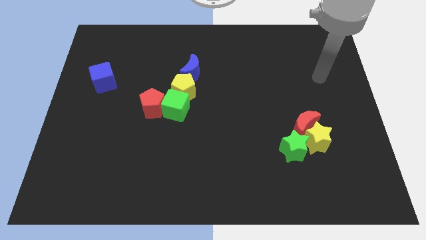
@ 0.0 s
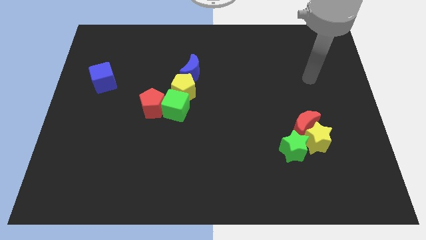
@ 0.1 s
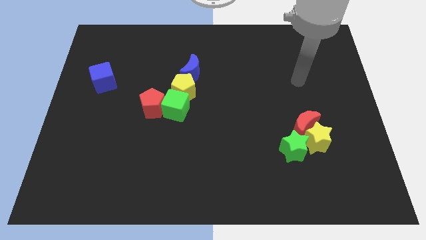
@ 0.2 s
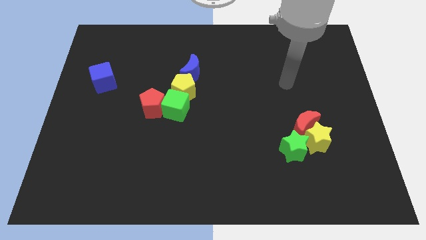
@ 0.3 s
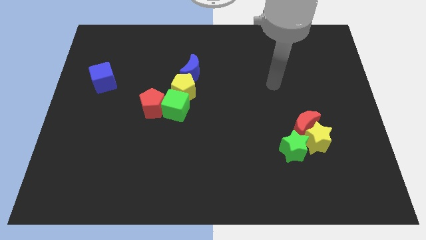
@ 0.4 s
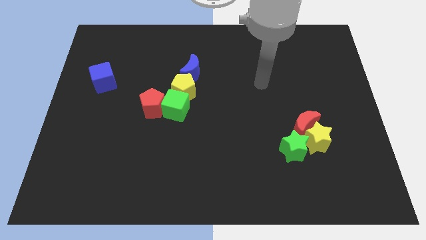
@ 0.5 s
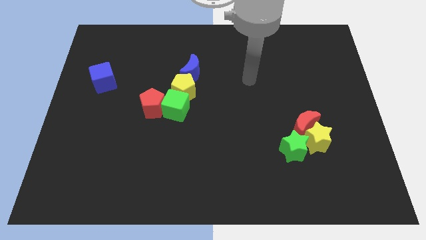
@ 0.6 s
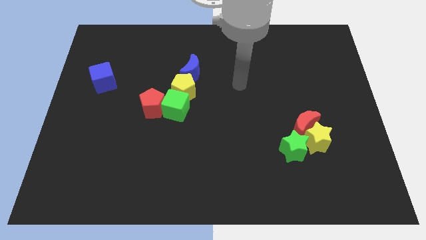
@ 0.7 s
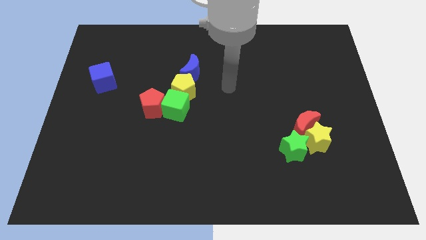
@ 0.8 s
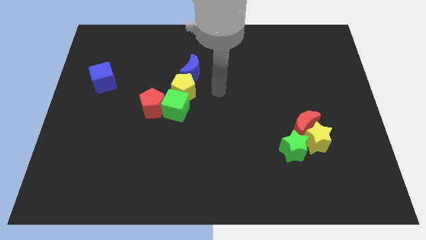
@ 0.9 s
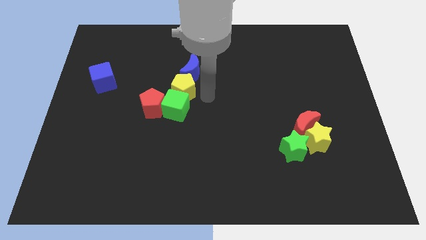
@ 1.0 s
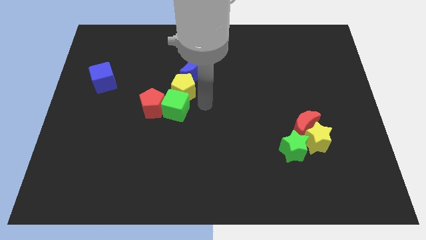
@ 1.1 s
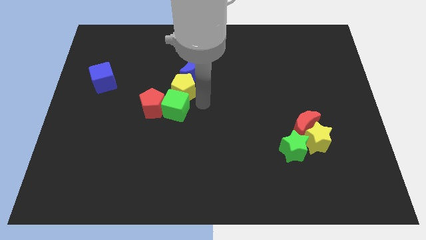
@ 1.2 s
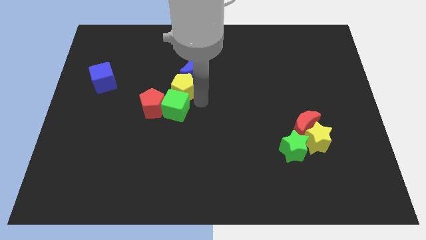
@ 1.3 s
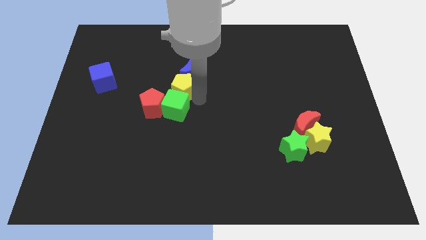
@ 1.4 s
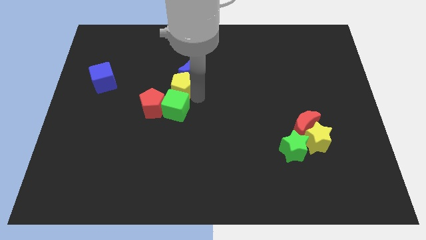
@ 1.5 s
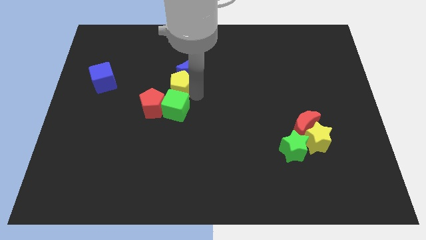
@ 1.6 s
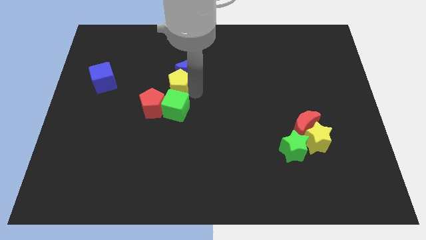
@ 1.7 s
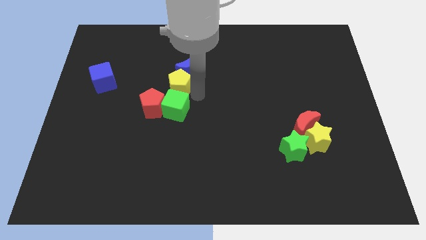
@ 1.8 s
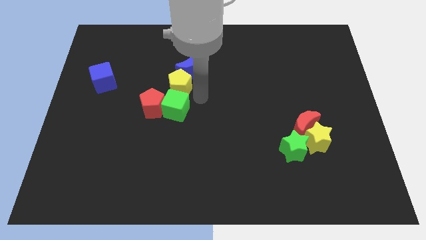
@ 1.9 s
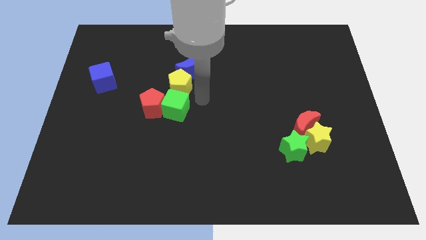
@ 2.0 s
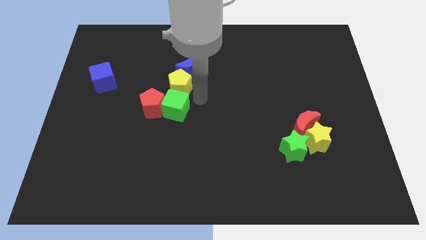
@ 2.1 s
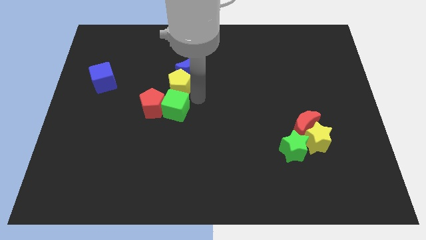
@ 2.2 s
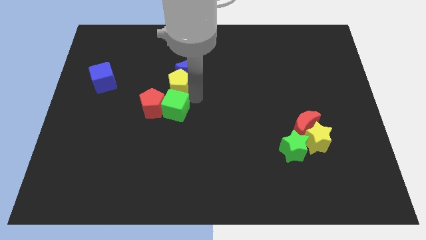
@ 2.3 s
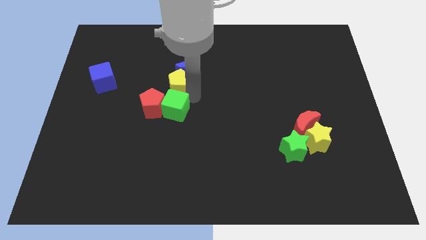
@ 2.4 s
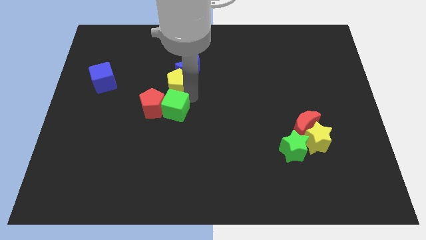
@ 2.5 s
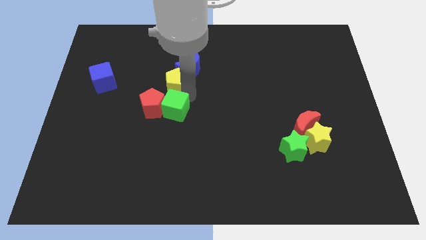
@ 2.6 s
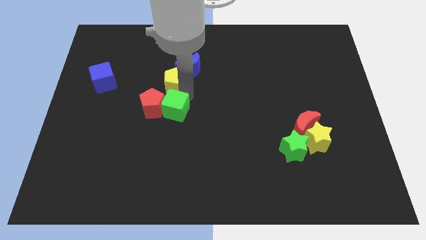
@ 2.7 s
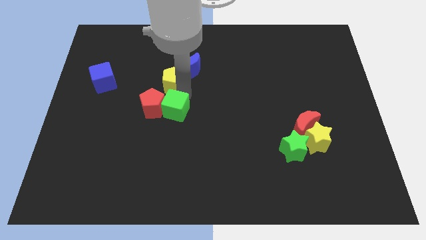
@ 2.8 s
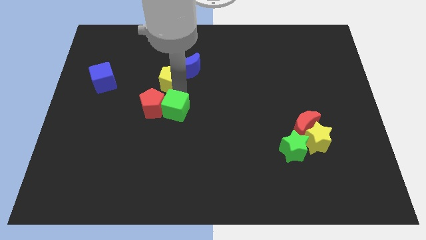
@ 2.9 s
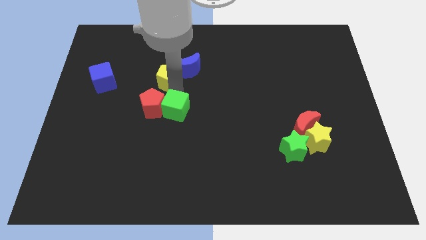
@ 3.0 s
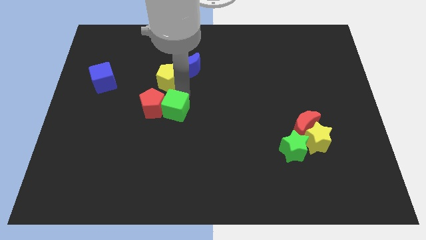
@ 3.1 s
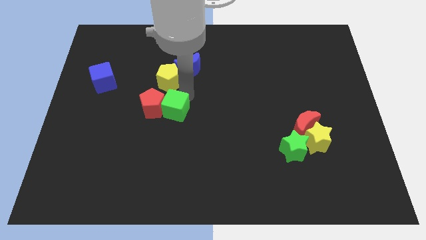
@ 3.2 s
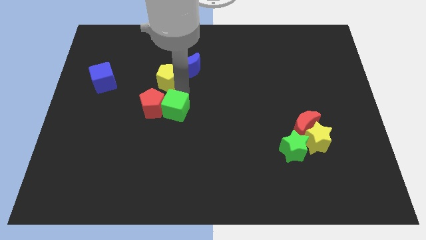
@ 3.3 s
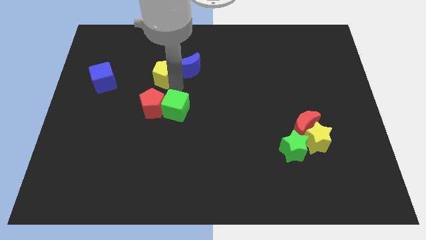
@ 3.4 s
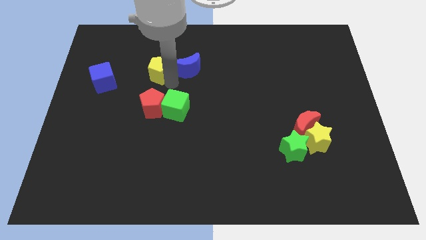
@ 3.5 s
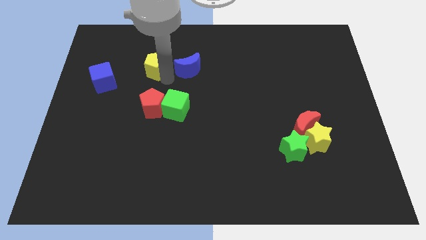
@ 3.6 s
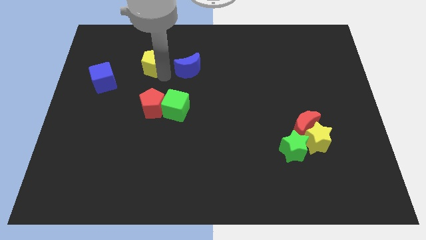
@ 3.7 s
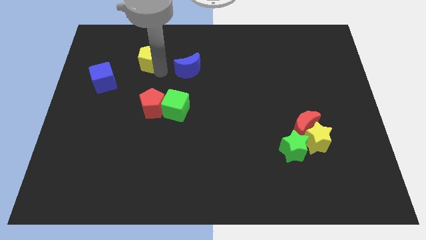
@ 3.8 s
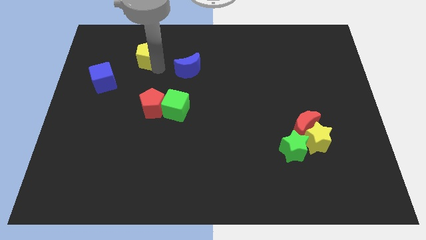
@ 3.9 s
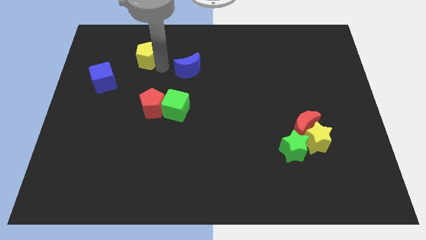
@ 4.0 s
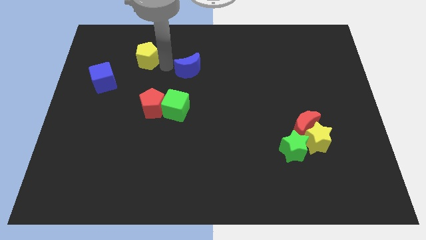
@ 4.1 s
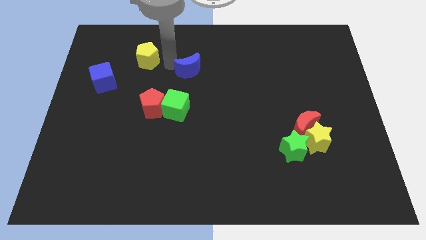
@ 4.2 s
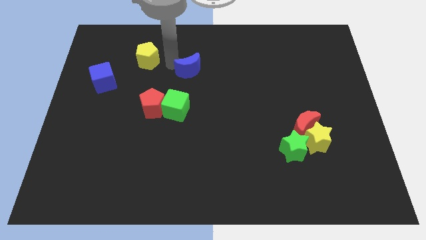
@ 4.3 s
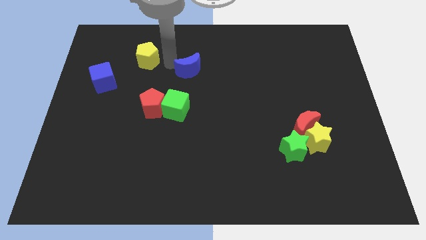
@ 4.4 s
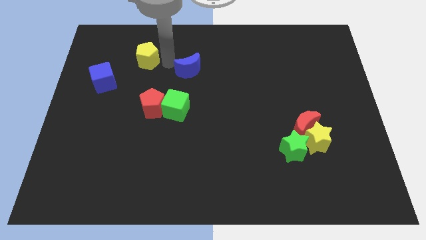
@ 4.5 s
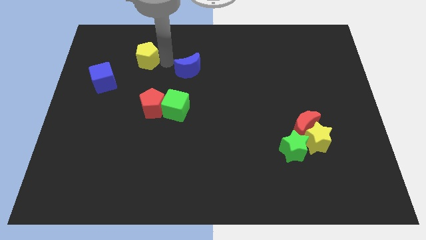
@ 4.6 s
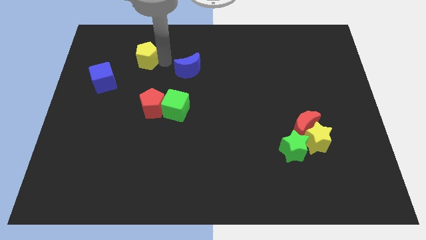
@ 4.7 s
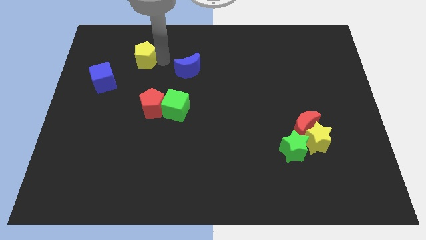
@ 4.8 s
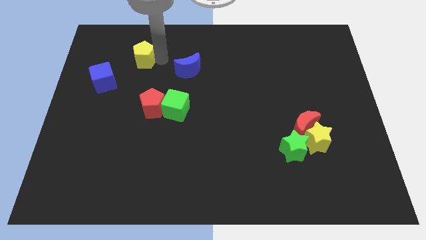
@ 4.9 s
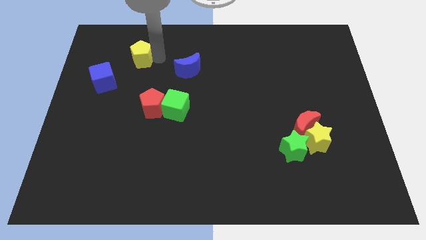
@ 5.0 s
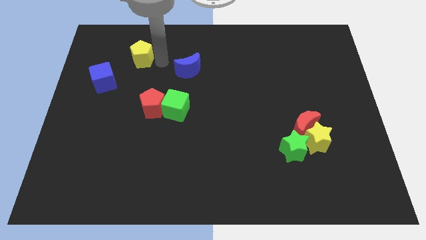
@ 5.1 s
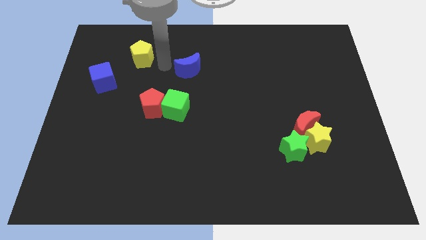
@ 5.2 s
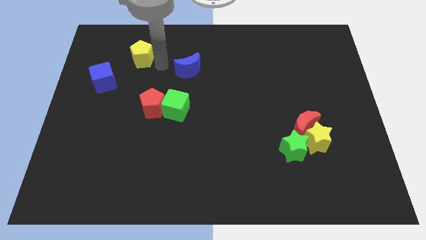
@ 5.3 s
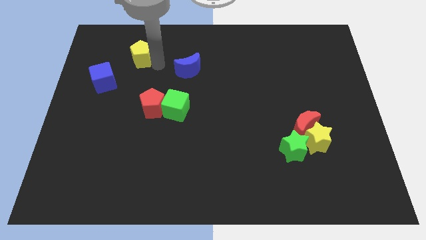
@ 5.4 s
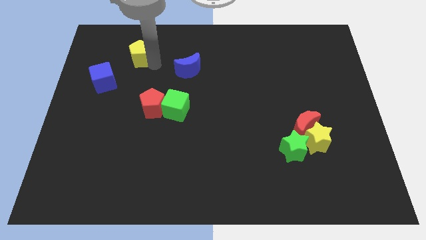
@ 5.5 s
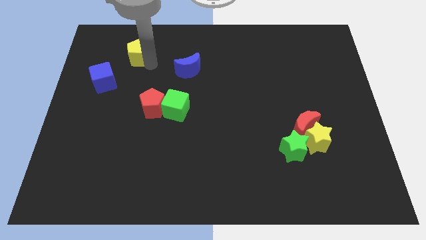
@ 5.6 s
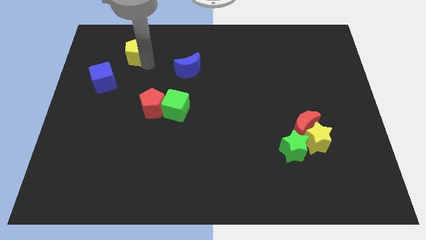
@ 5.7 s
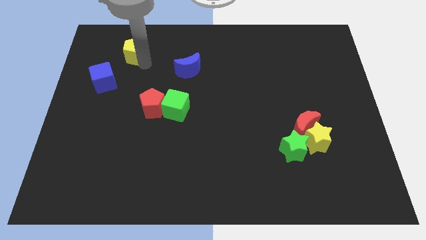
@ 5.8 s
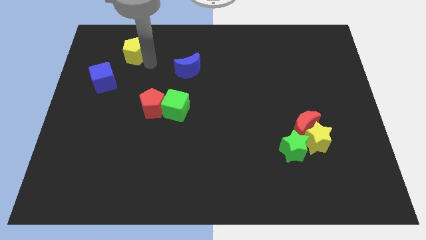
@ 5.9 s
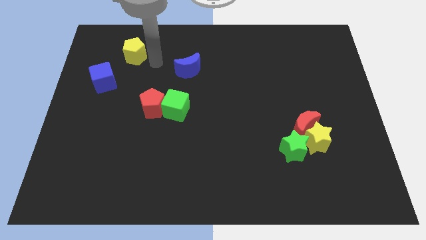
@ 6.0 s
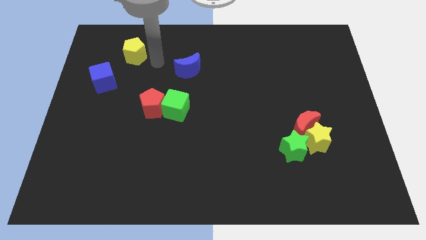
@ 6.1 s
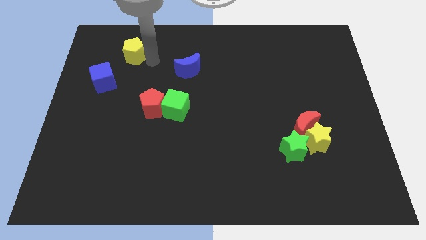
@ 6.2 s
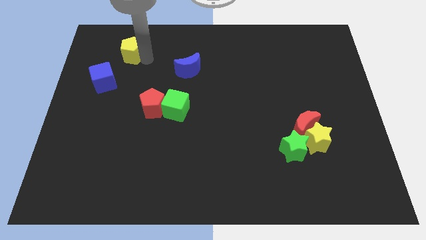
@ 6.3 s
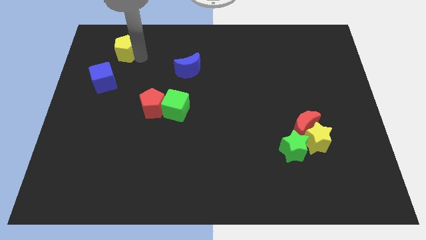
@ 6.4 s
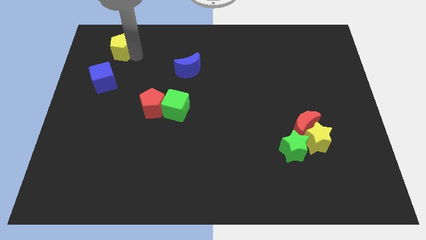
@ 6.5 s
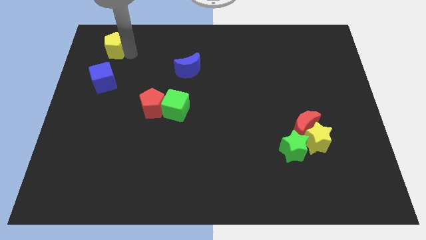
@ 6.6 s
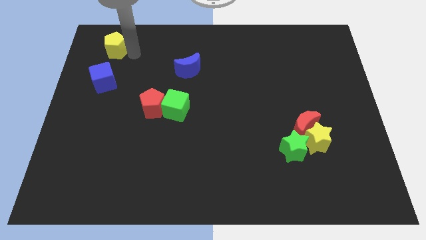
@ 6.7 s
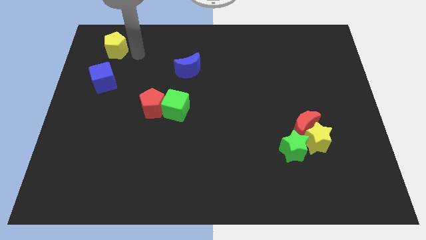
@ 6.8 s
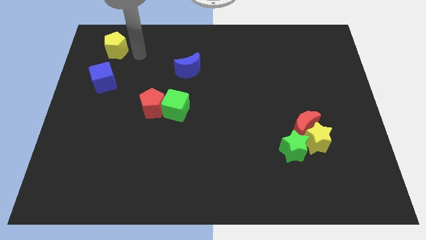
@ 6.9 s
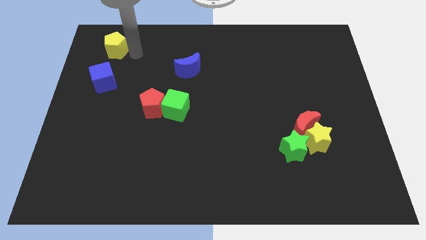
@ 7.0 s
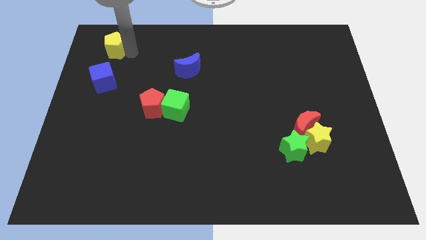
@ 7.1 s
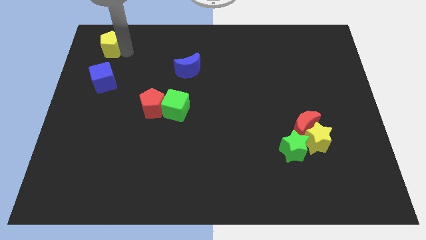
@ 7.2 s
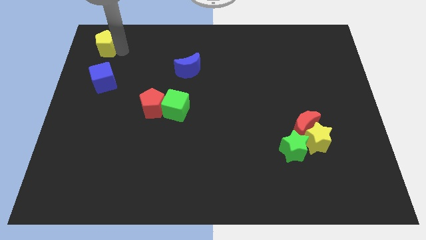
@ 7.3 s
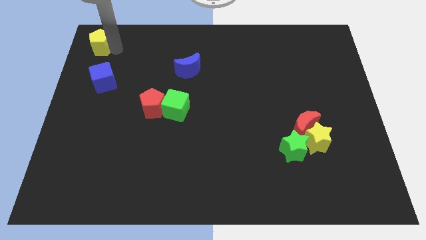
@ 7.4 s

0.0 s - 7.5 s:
move the yellow pentagon to the top left
